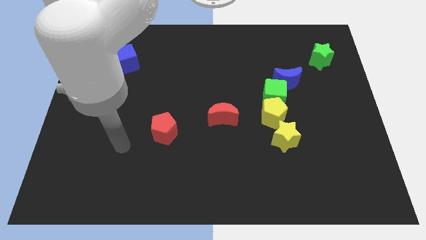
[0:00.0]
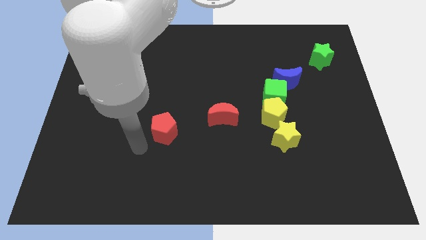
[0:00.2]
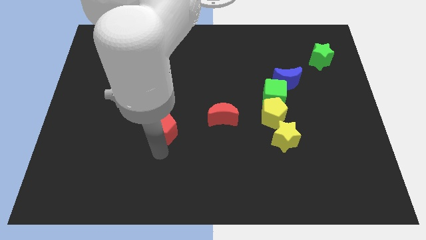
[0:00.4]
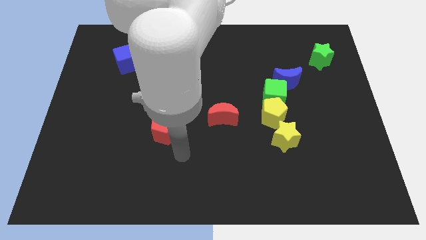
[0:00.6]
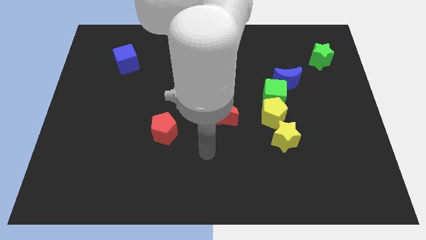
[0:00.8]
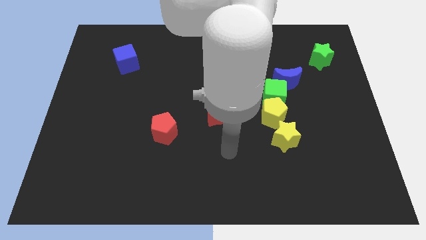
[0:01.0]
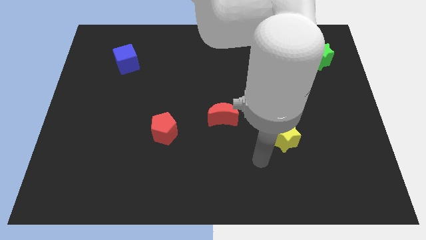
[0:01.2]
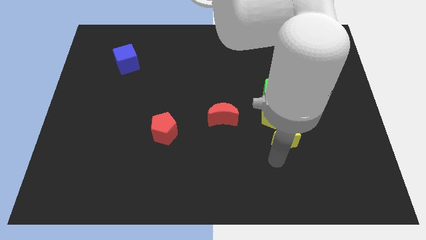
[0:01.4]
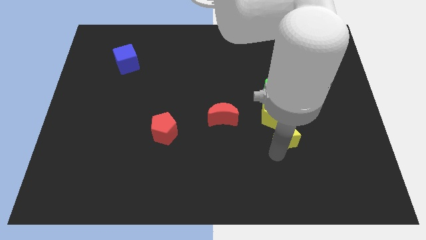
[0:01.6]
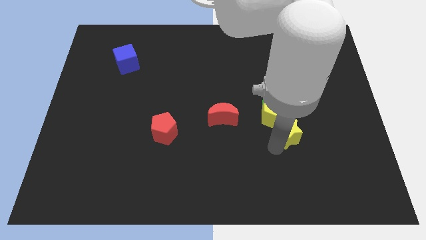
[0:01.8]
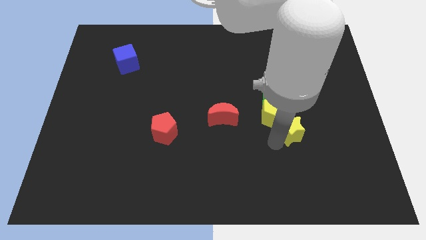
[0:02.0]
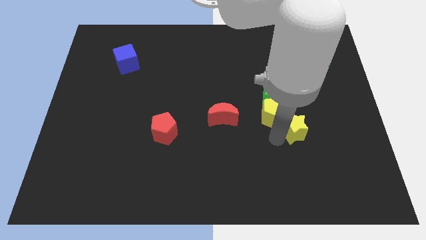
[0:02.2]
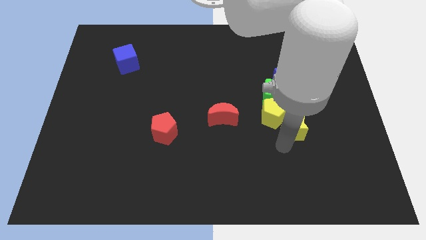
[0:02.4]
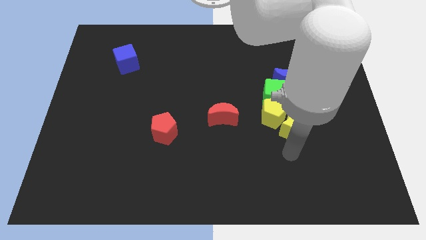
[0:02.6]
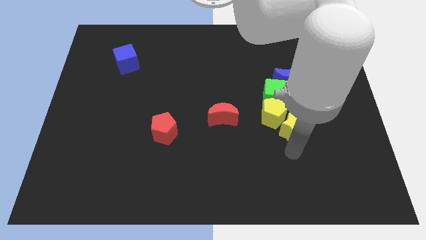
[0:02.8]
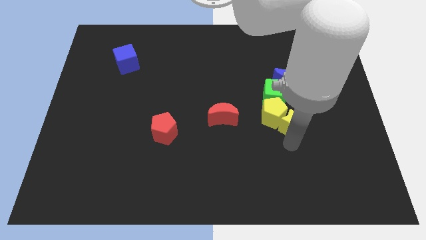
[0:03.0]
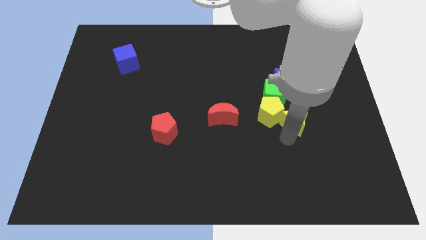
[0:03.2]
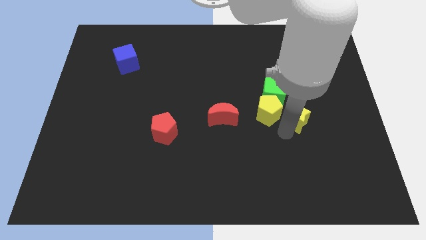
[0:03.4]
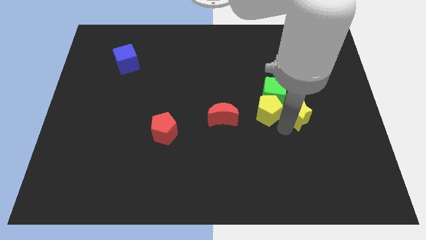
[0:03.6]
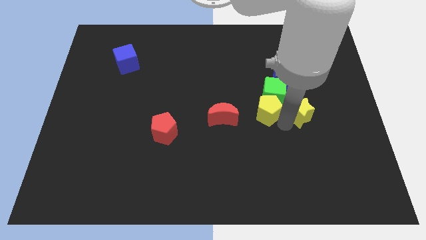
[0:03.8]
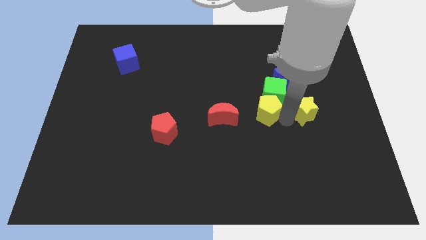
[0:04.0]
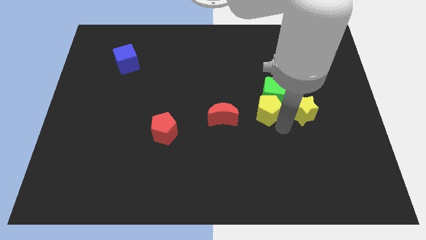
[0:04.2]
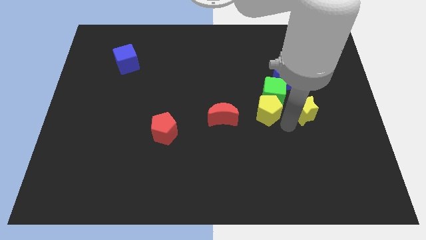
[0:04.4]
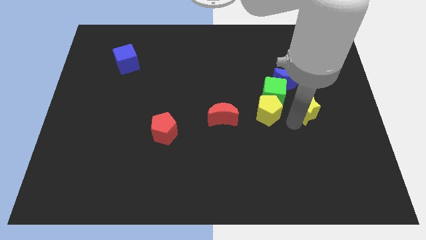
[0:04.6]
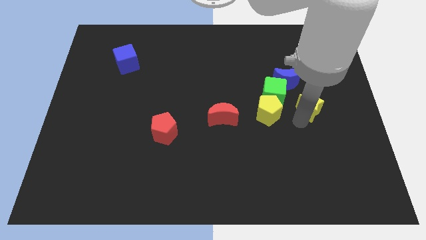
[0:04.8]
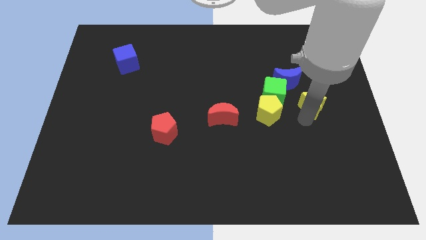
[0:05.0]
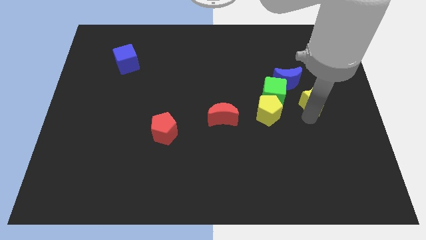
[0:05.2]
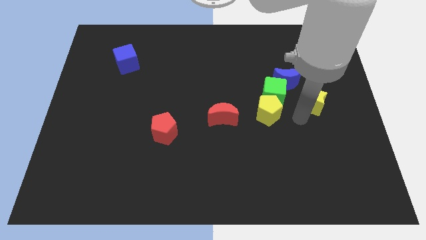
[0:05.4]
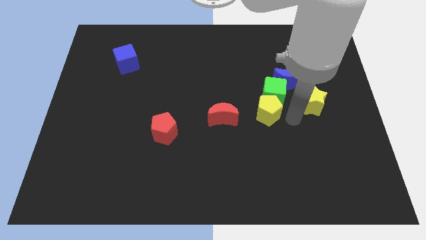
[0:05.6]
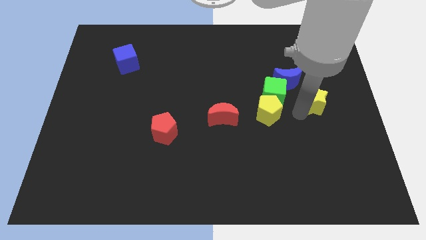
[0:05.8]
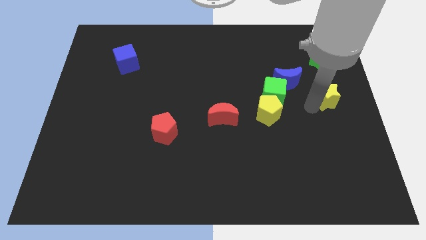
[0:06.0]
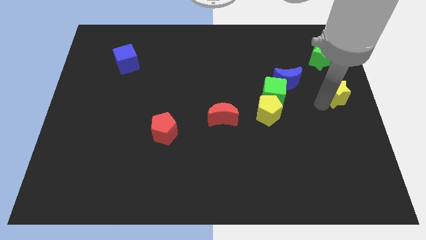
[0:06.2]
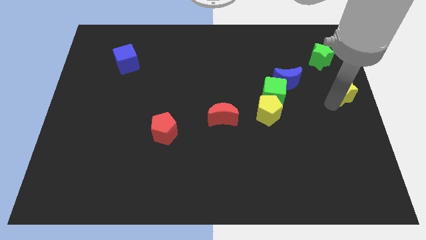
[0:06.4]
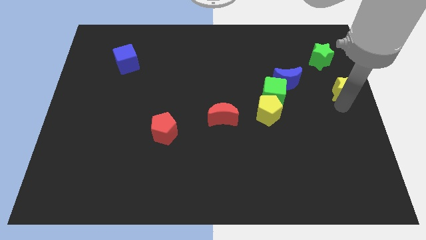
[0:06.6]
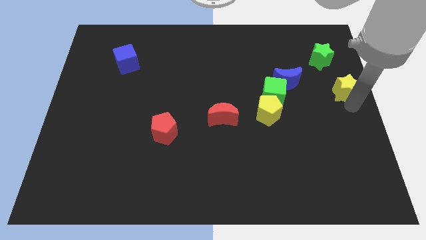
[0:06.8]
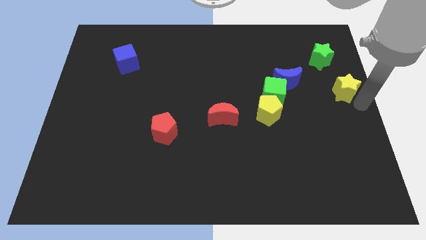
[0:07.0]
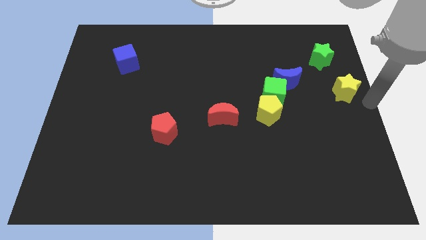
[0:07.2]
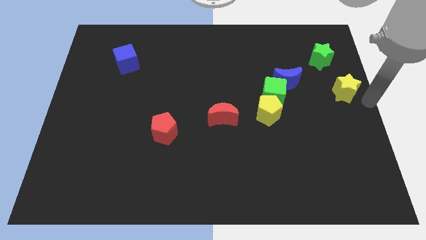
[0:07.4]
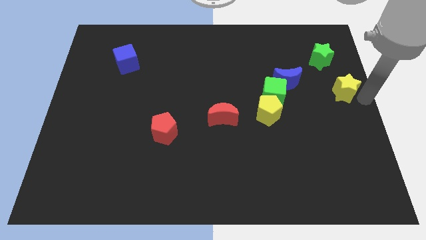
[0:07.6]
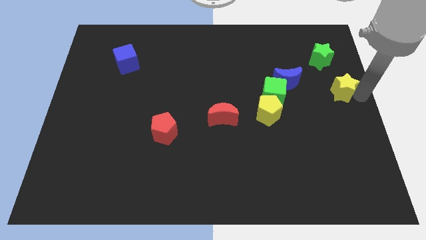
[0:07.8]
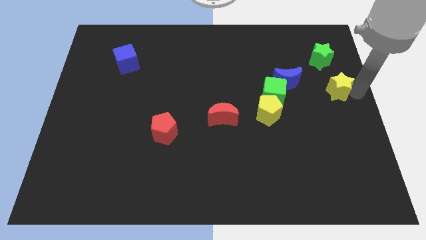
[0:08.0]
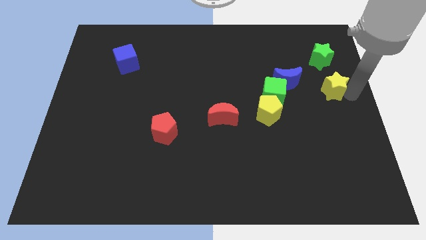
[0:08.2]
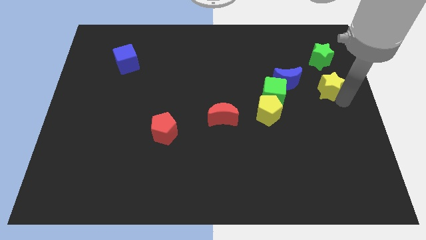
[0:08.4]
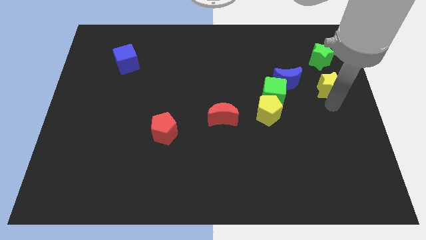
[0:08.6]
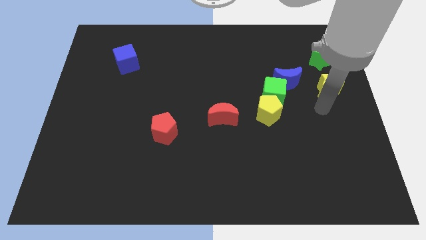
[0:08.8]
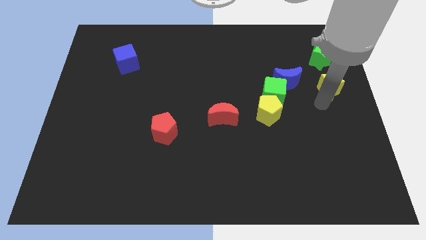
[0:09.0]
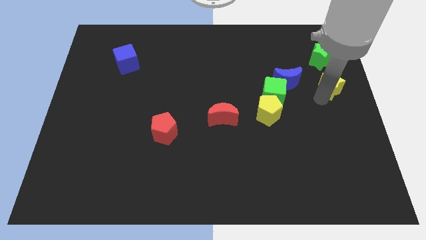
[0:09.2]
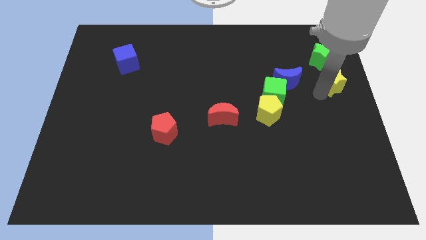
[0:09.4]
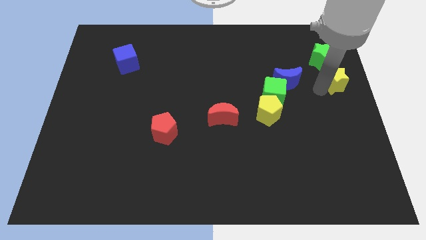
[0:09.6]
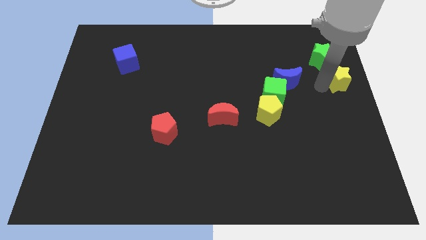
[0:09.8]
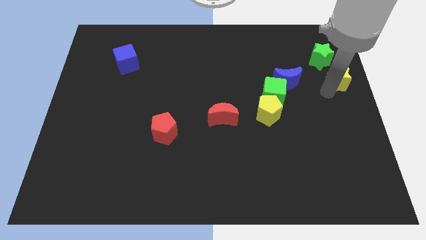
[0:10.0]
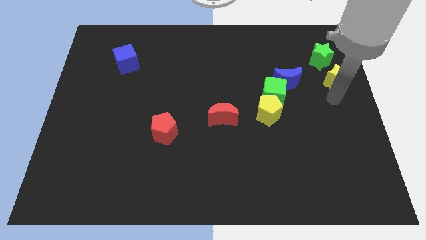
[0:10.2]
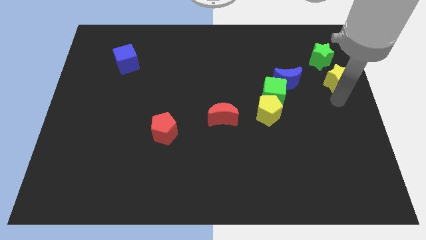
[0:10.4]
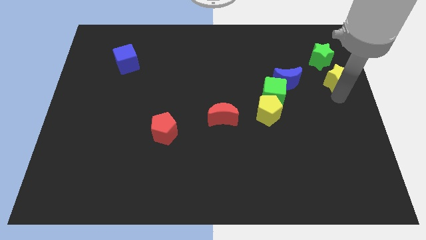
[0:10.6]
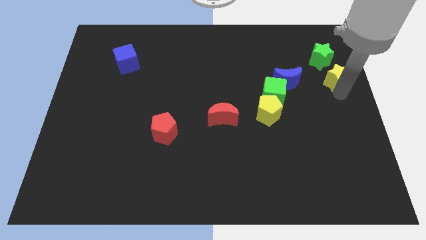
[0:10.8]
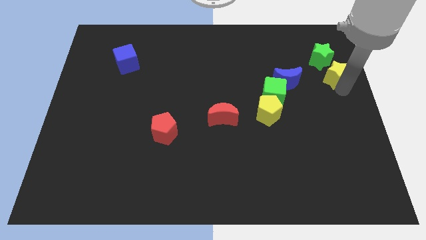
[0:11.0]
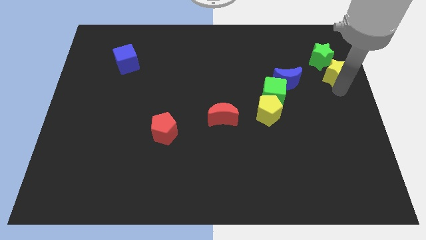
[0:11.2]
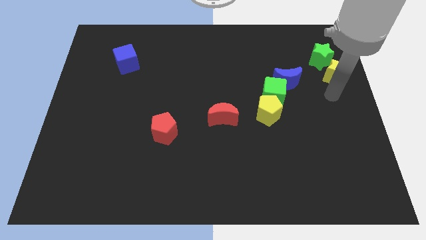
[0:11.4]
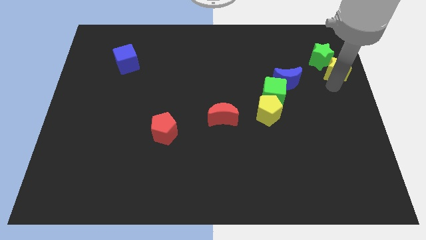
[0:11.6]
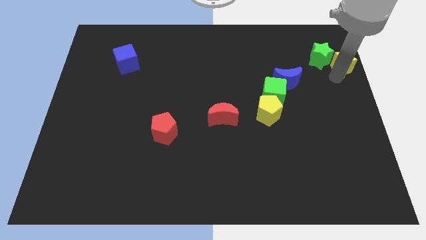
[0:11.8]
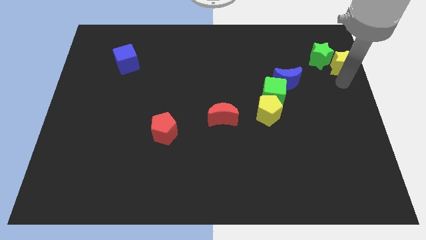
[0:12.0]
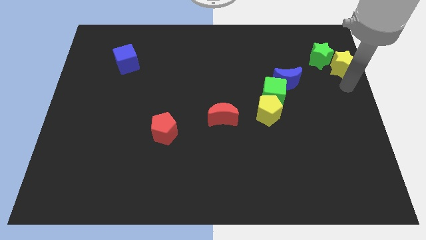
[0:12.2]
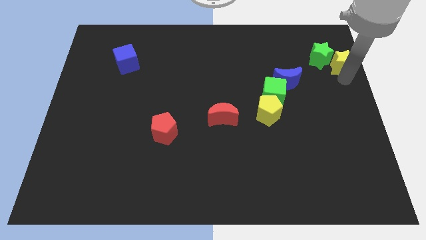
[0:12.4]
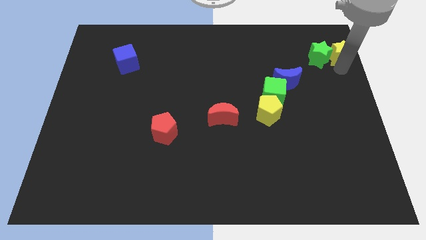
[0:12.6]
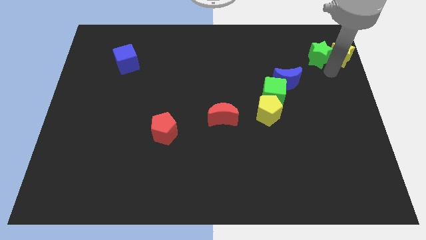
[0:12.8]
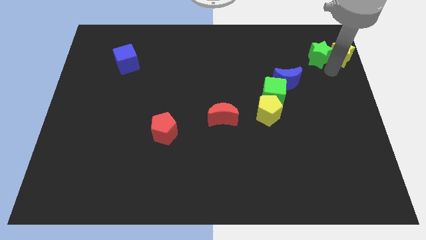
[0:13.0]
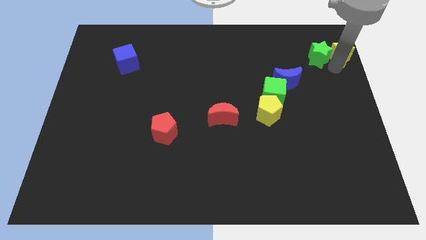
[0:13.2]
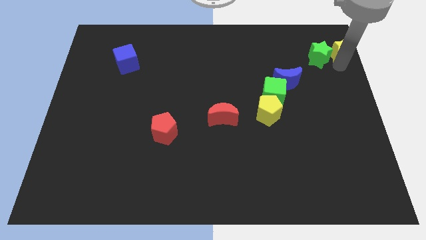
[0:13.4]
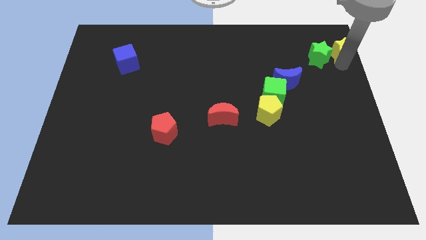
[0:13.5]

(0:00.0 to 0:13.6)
put the yellow star to the upper right corner
